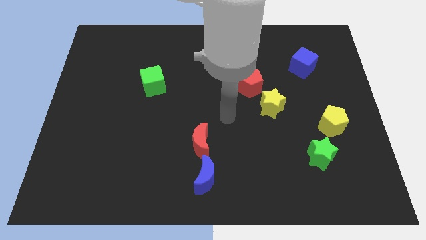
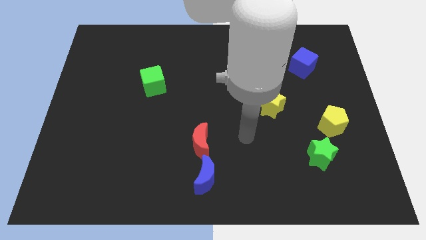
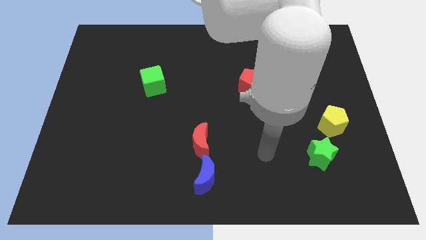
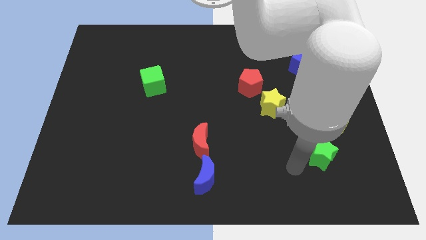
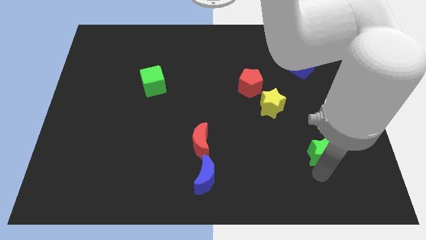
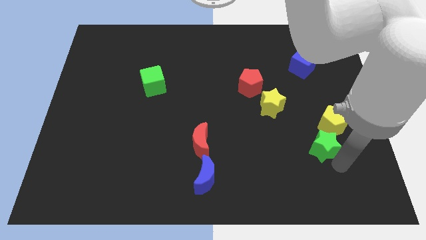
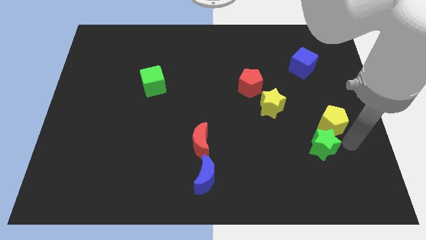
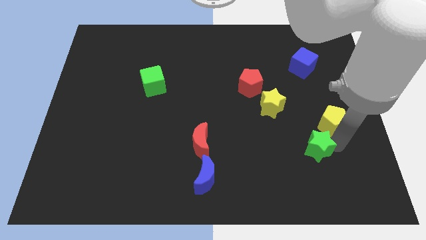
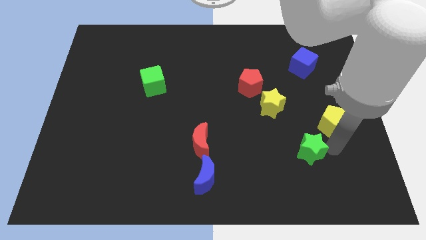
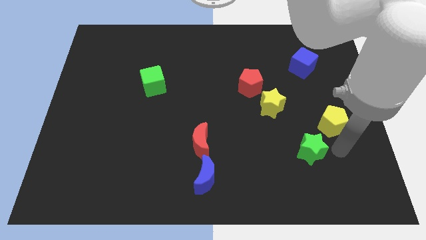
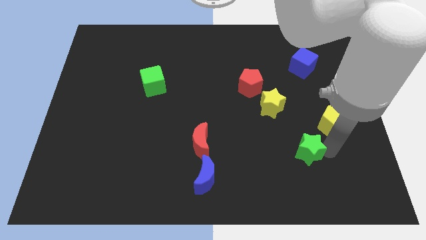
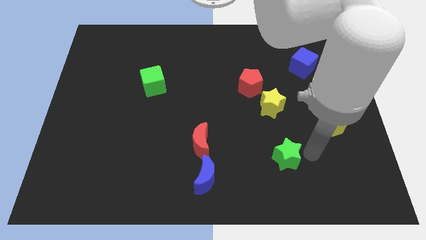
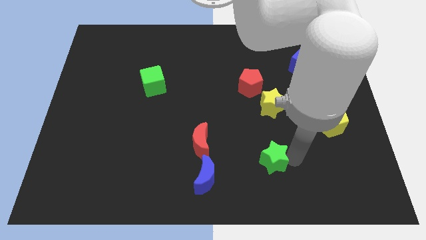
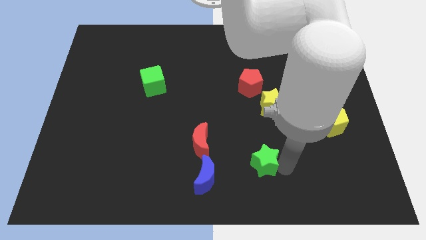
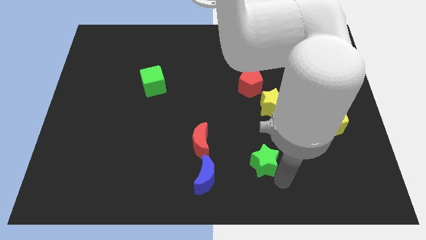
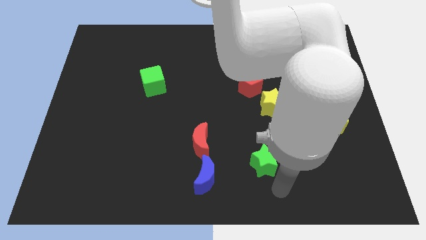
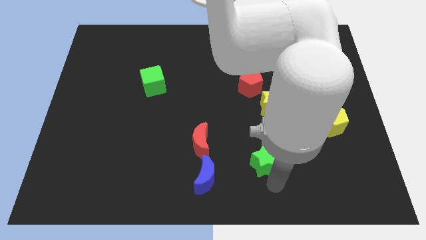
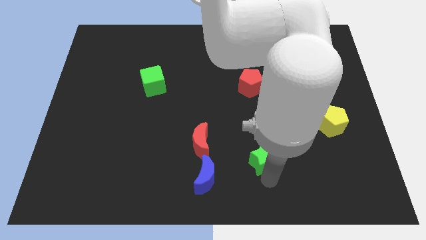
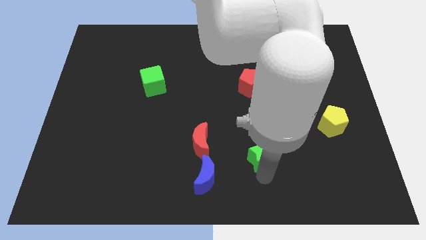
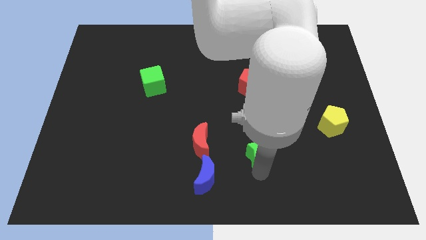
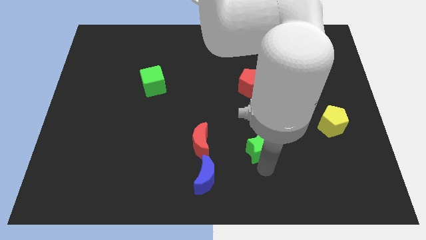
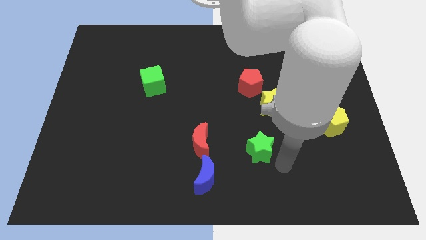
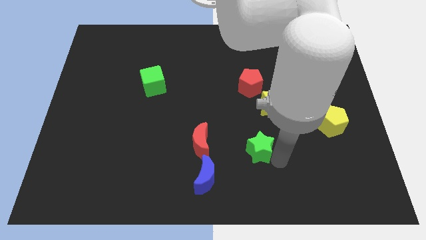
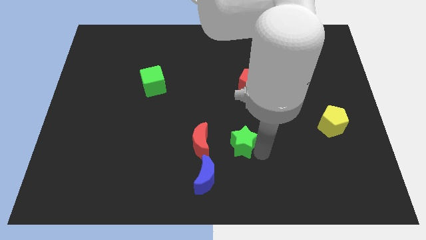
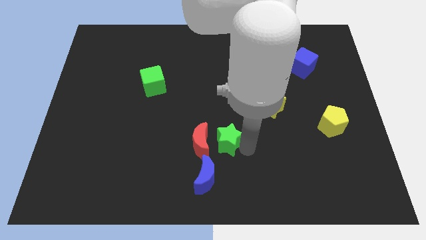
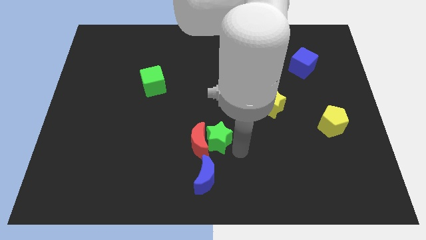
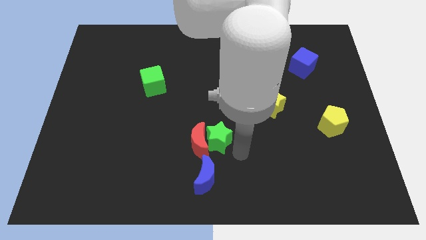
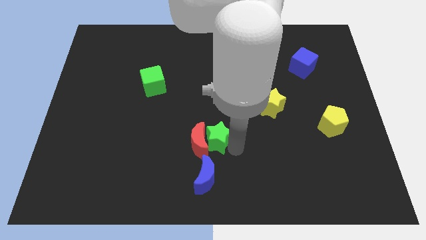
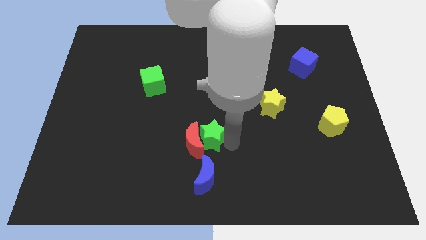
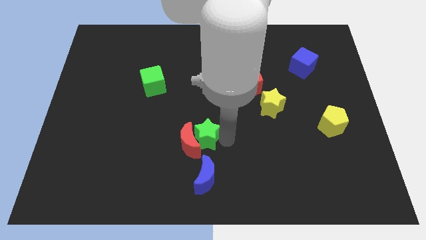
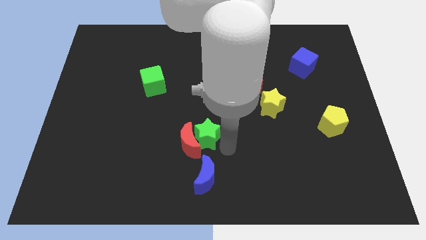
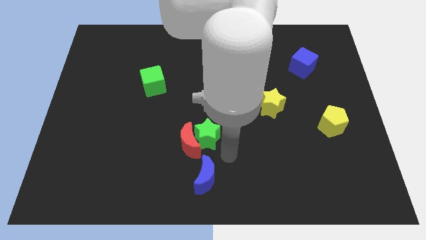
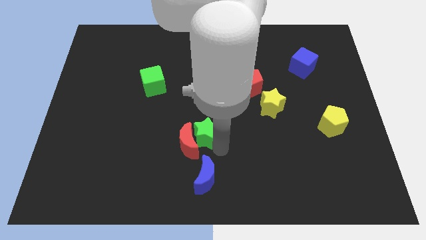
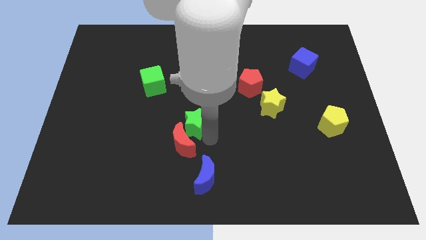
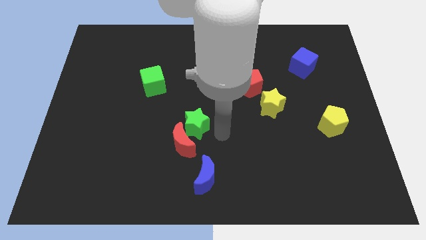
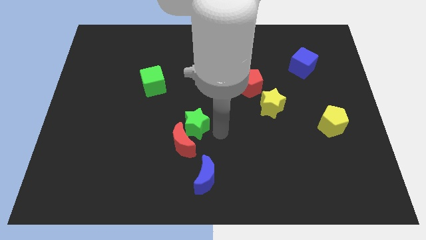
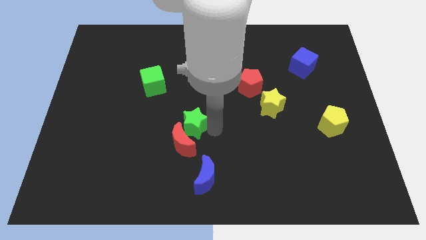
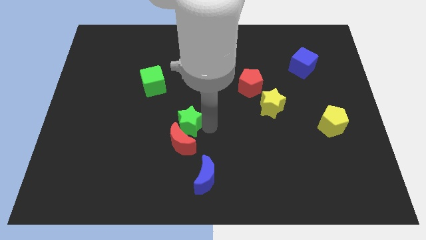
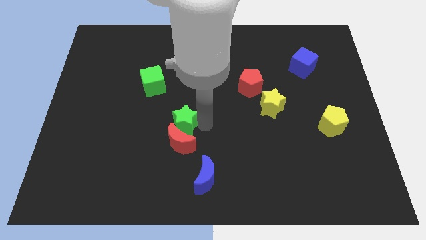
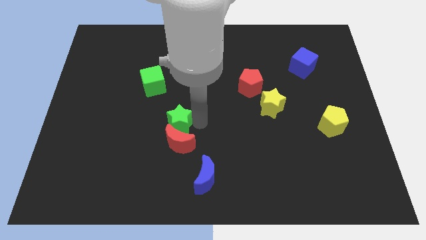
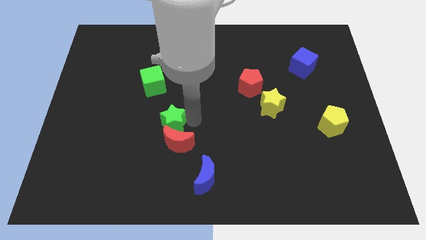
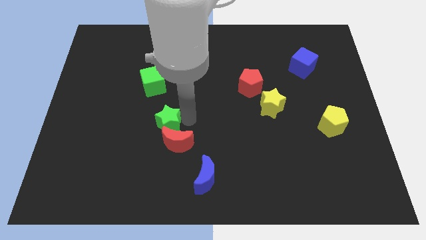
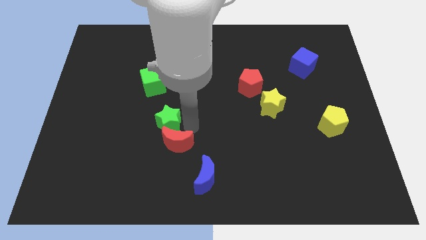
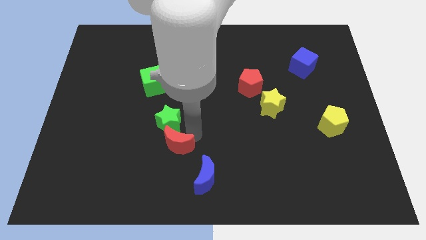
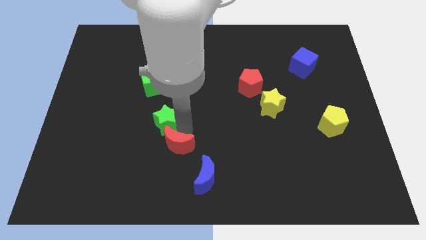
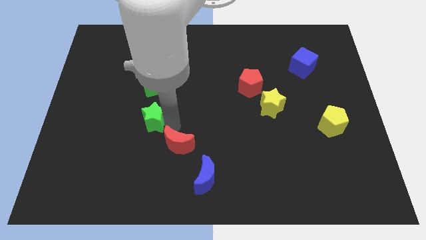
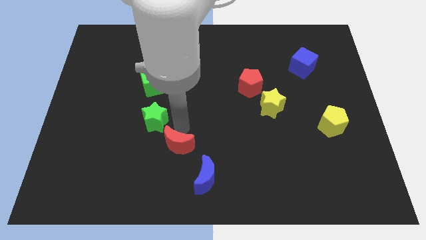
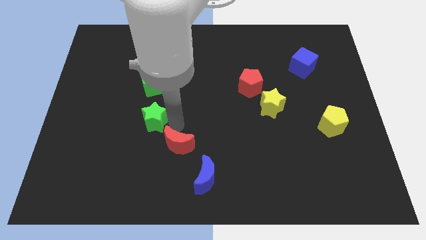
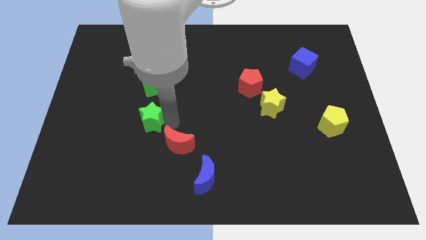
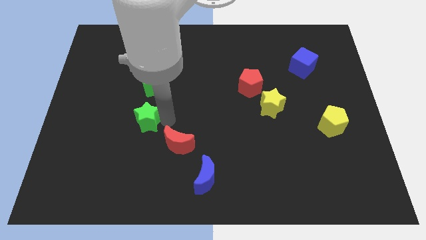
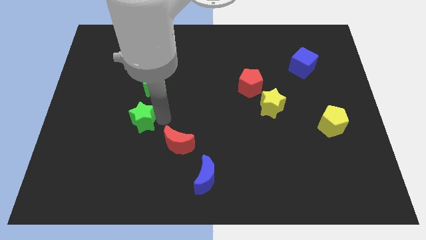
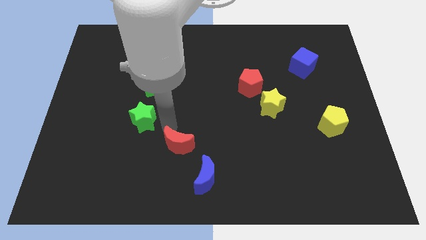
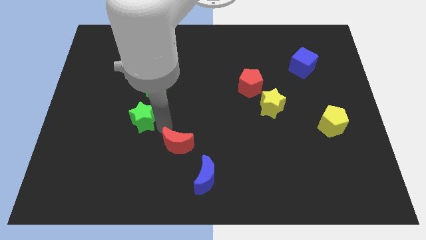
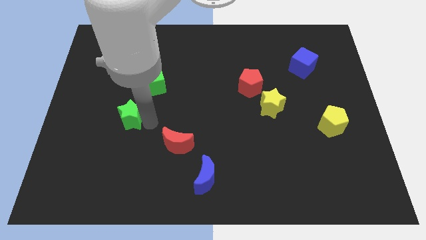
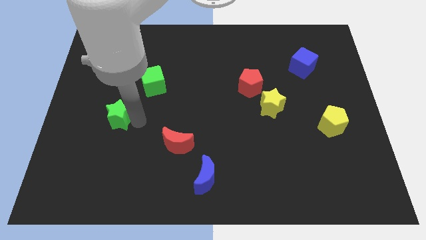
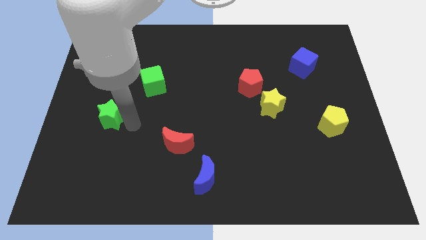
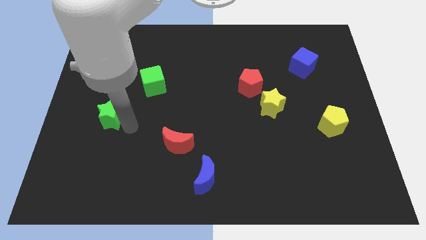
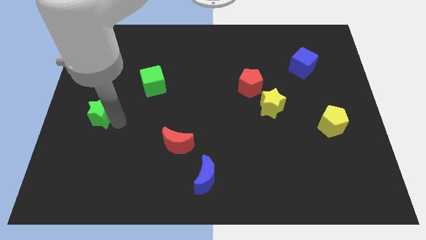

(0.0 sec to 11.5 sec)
put the green star to the left side of the board
